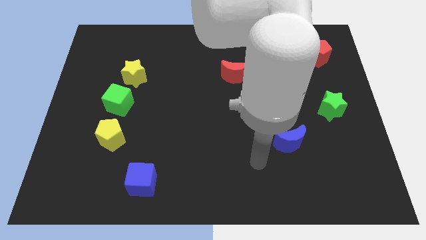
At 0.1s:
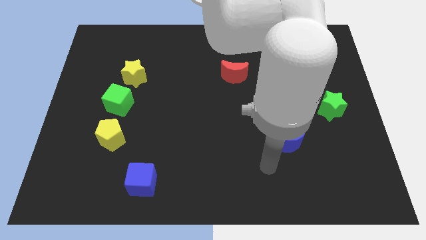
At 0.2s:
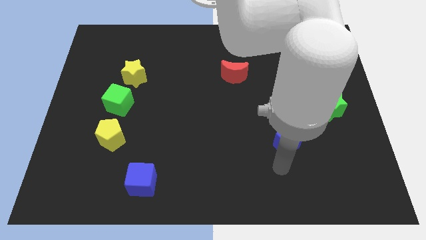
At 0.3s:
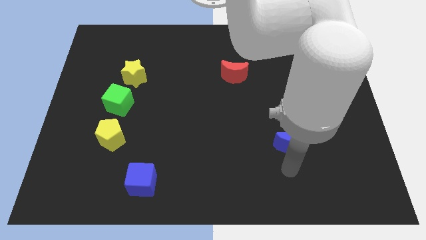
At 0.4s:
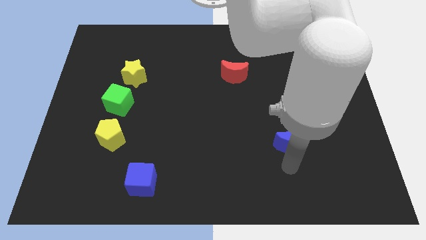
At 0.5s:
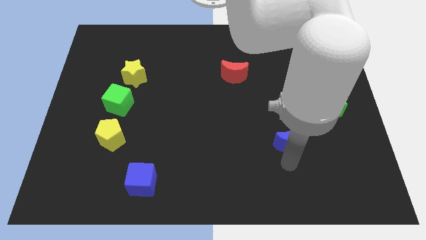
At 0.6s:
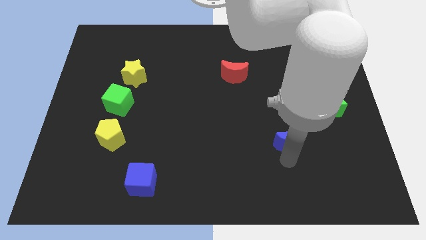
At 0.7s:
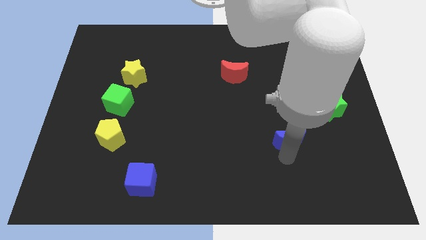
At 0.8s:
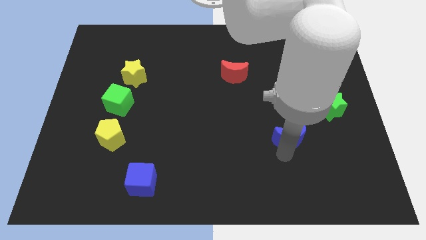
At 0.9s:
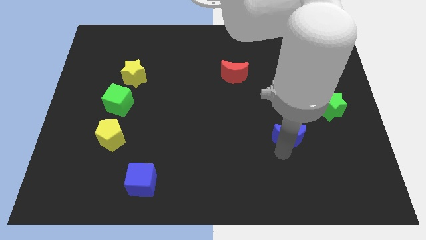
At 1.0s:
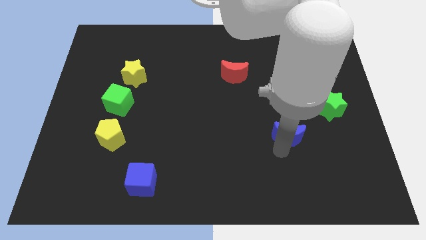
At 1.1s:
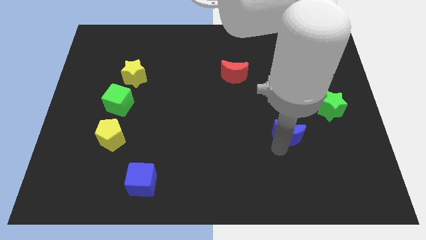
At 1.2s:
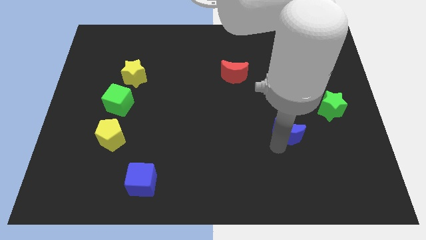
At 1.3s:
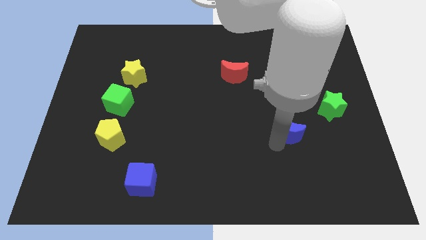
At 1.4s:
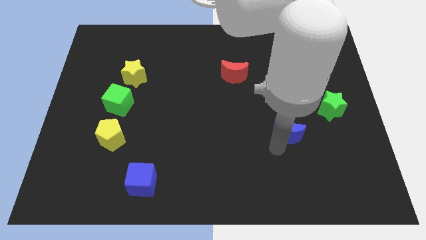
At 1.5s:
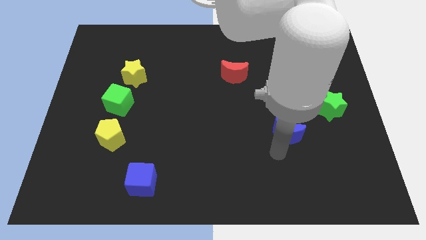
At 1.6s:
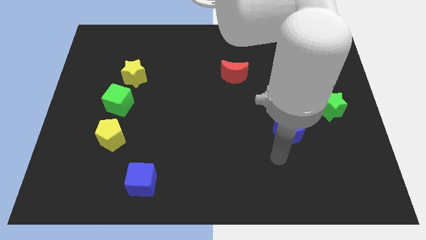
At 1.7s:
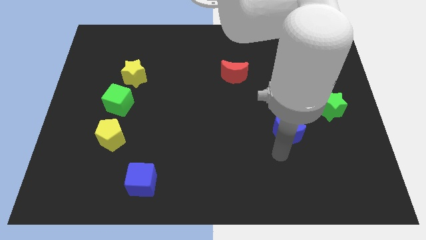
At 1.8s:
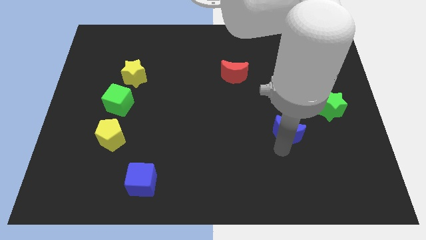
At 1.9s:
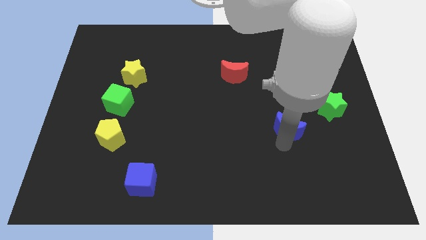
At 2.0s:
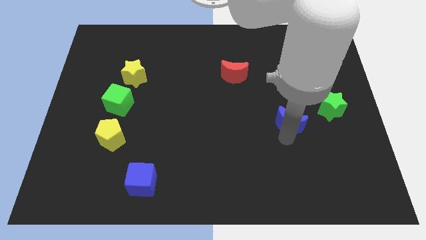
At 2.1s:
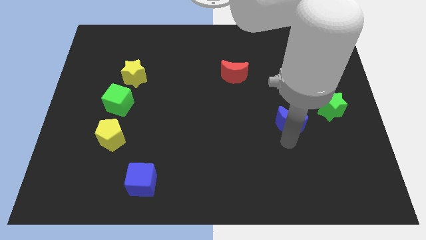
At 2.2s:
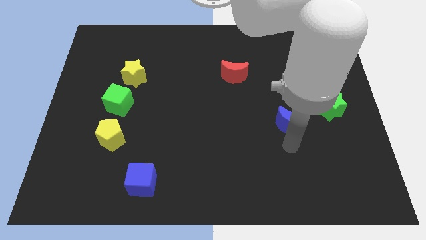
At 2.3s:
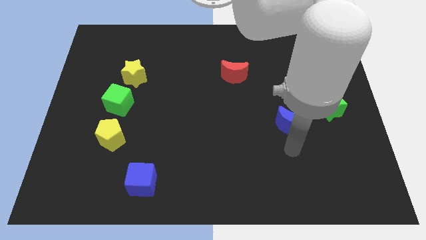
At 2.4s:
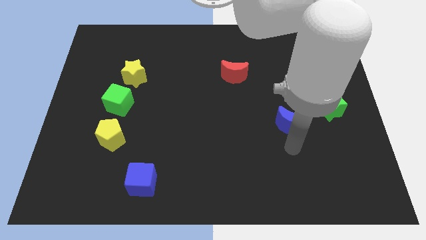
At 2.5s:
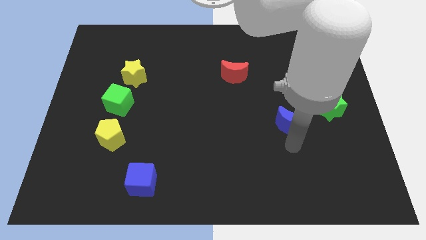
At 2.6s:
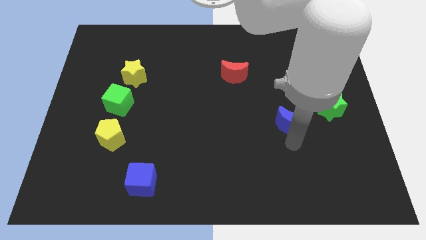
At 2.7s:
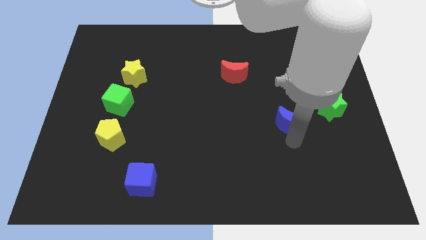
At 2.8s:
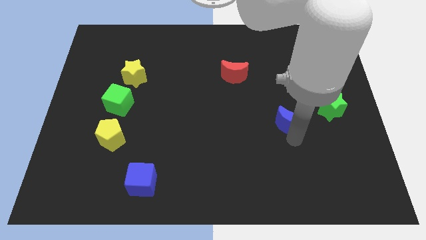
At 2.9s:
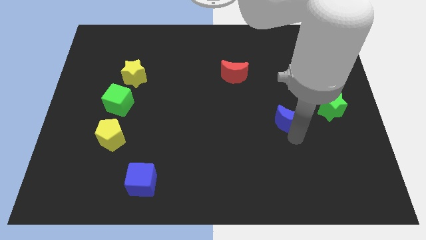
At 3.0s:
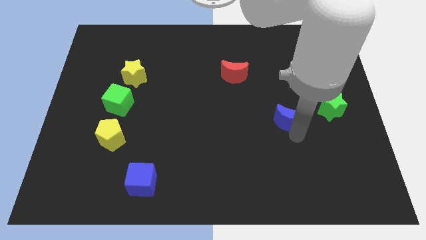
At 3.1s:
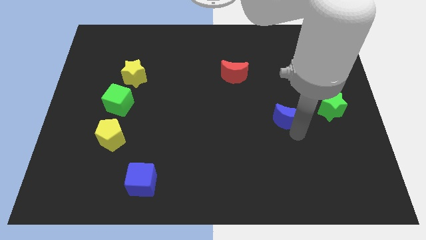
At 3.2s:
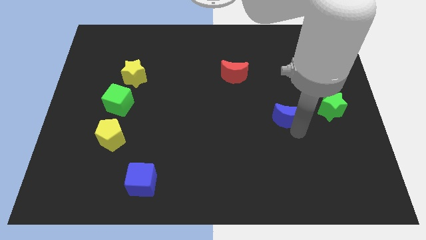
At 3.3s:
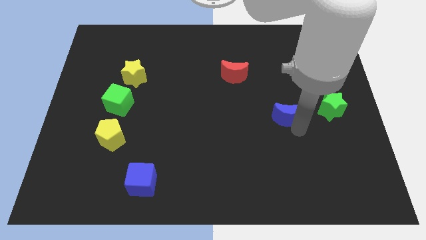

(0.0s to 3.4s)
push the blue moon a little upwards

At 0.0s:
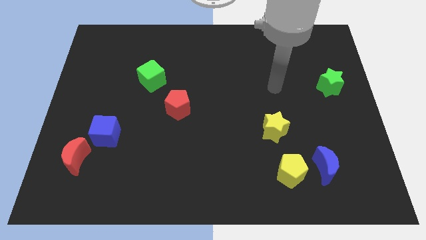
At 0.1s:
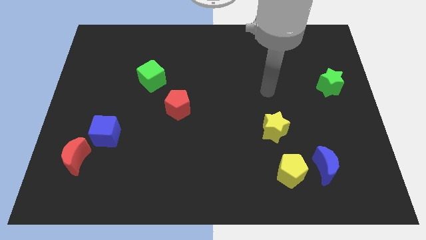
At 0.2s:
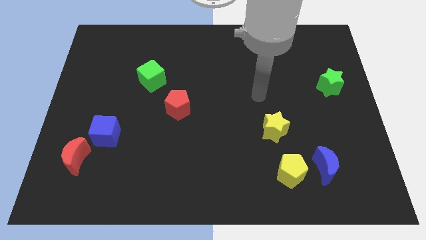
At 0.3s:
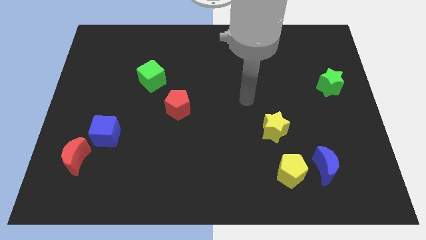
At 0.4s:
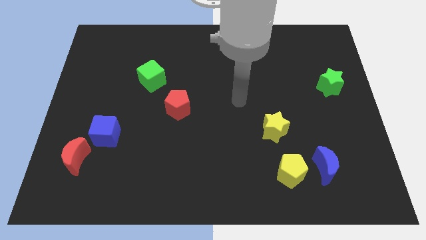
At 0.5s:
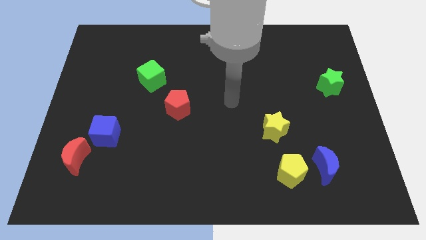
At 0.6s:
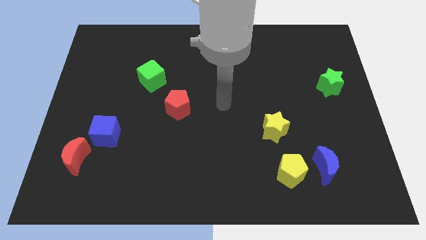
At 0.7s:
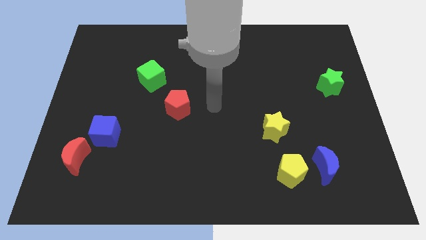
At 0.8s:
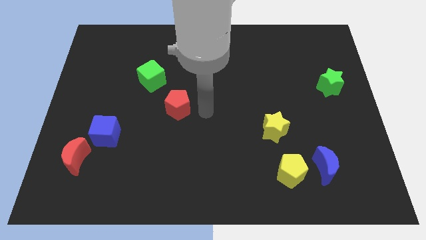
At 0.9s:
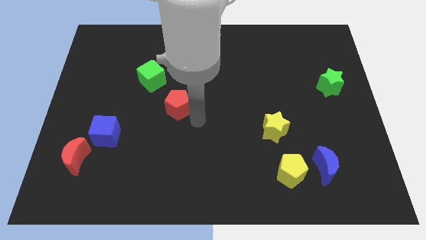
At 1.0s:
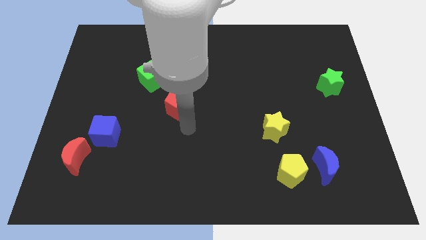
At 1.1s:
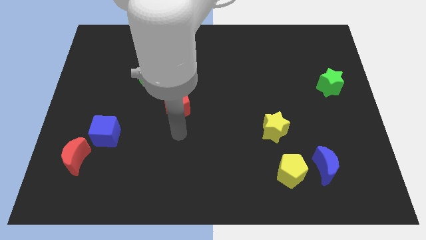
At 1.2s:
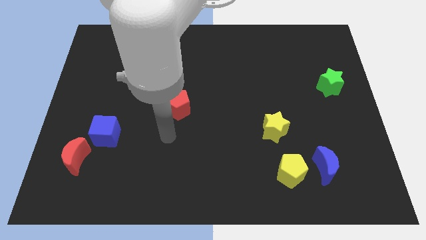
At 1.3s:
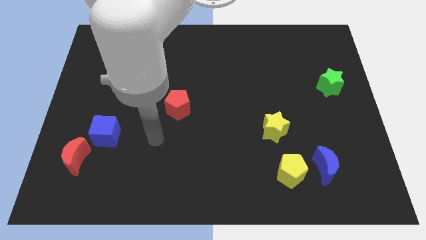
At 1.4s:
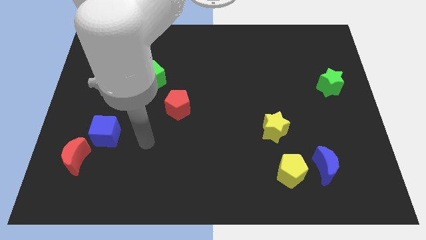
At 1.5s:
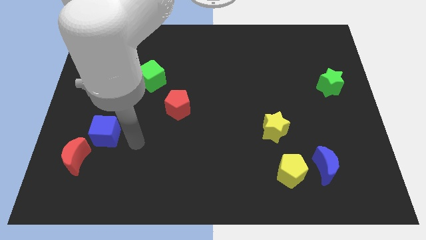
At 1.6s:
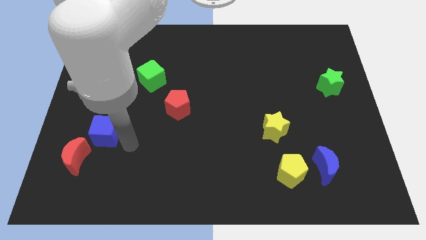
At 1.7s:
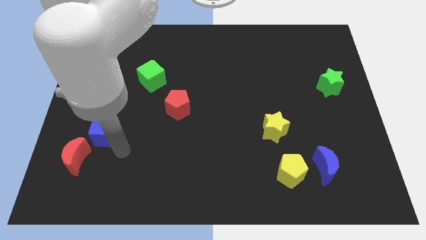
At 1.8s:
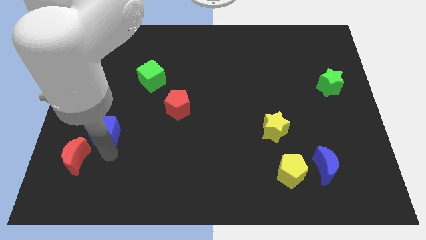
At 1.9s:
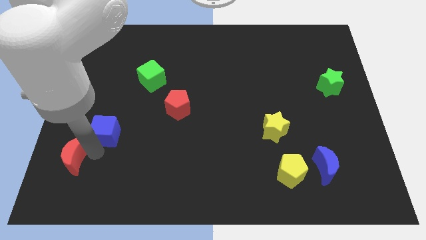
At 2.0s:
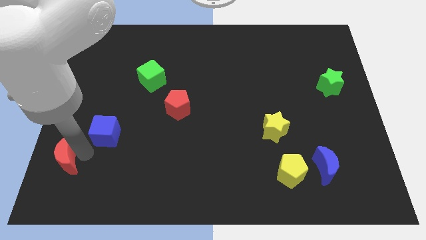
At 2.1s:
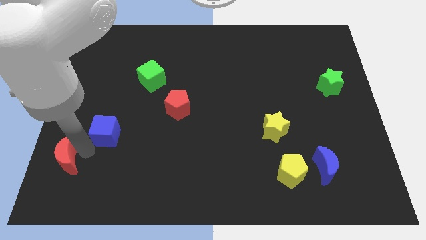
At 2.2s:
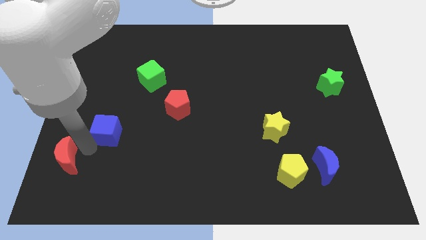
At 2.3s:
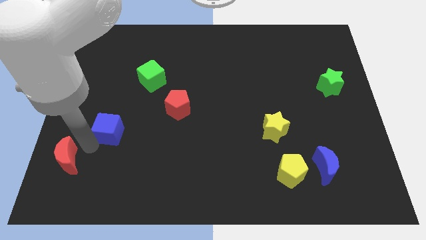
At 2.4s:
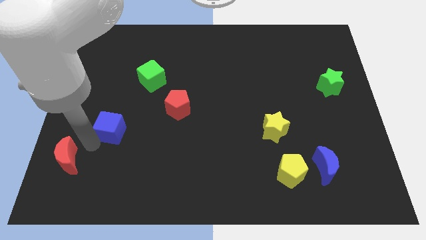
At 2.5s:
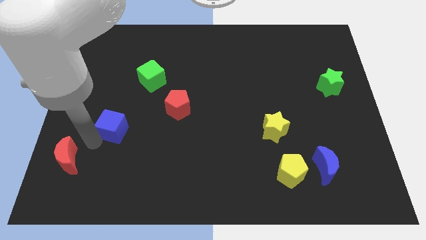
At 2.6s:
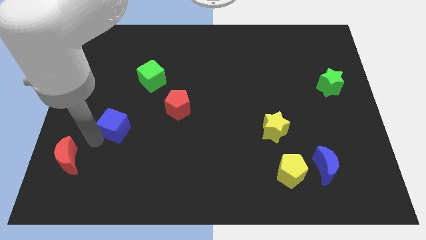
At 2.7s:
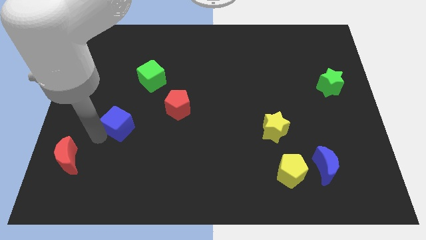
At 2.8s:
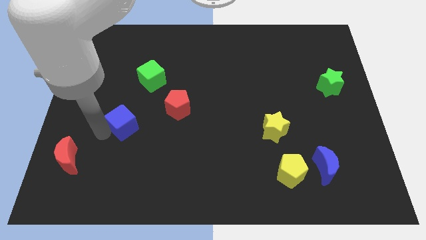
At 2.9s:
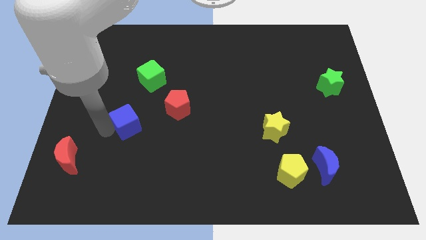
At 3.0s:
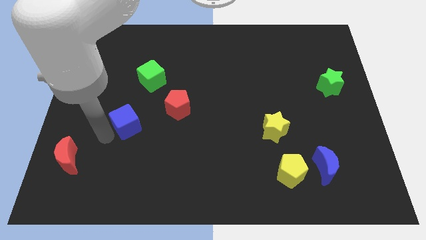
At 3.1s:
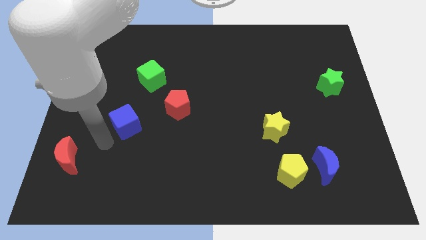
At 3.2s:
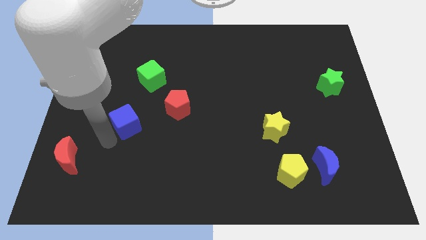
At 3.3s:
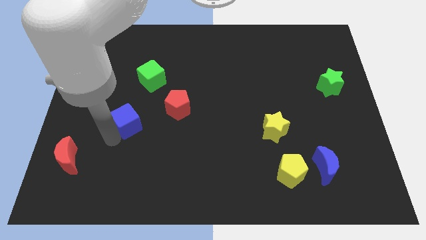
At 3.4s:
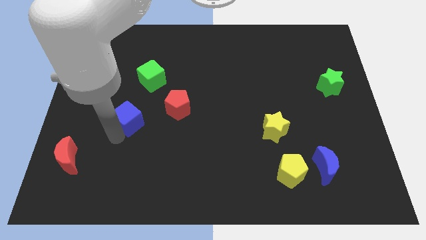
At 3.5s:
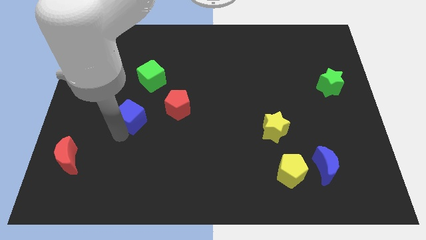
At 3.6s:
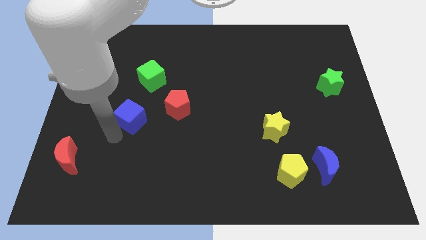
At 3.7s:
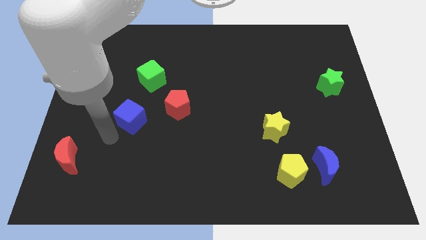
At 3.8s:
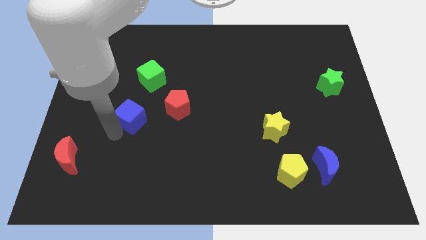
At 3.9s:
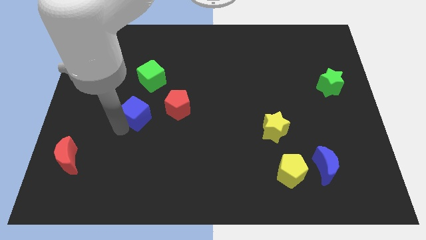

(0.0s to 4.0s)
push the blue cube upwards and to the right somewhat

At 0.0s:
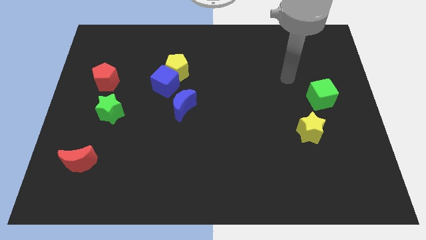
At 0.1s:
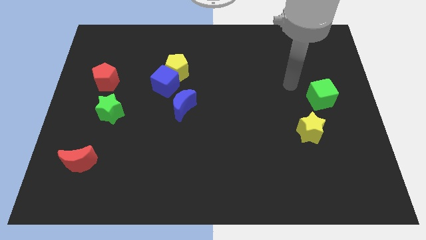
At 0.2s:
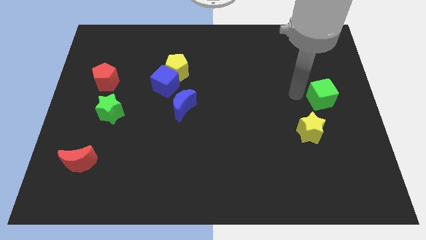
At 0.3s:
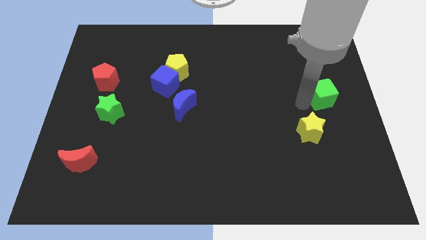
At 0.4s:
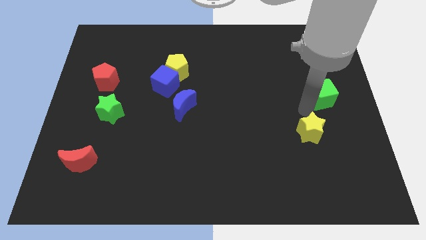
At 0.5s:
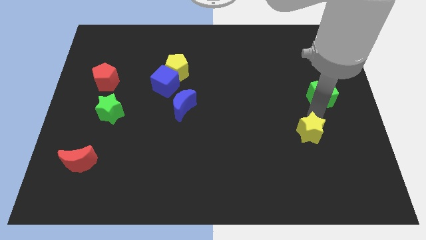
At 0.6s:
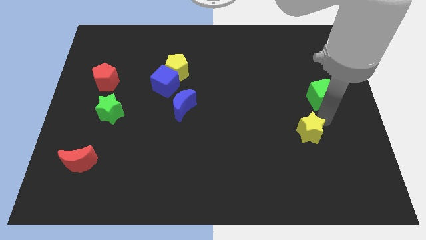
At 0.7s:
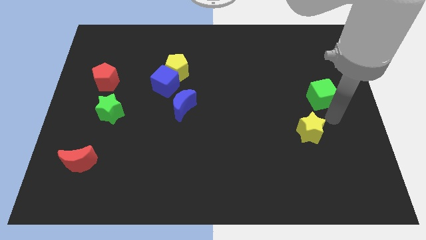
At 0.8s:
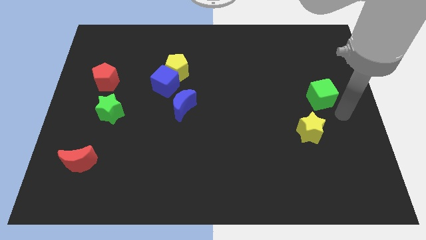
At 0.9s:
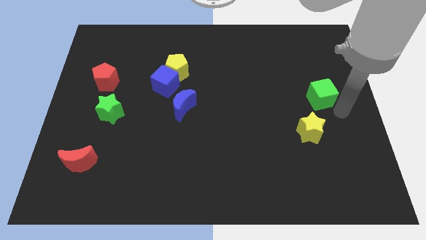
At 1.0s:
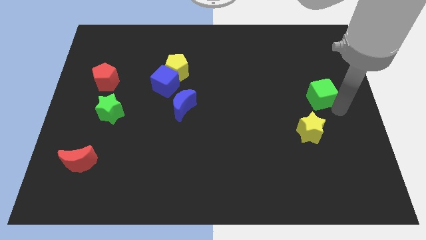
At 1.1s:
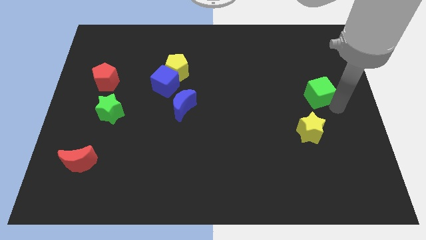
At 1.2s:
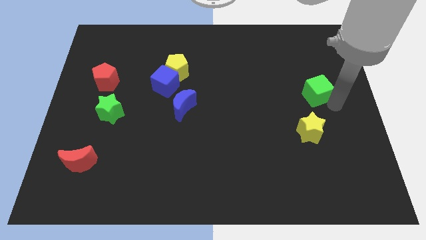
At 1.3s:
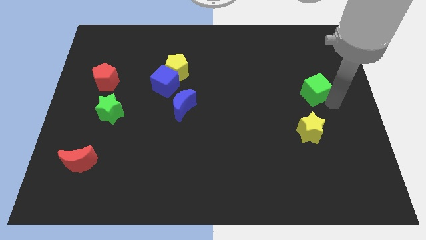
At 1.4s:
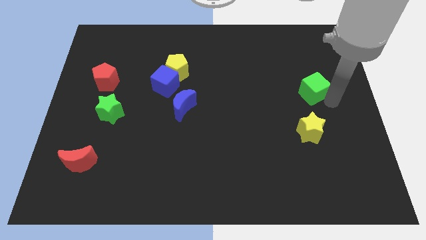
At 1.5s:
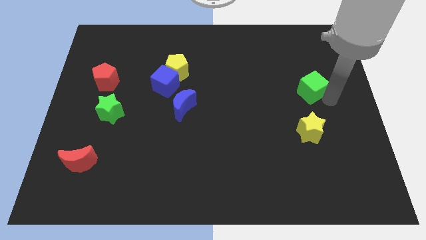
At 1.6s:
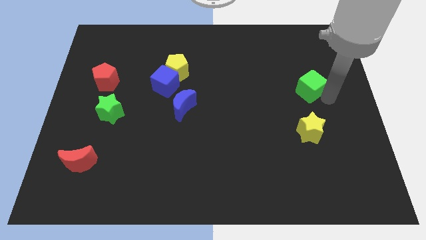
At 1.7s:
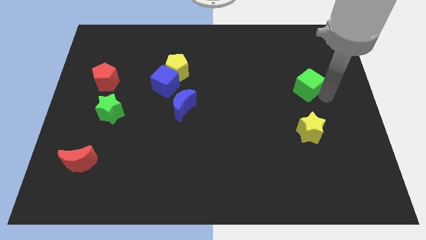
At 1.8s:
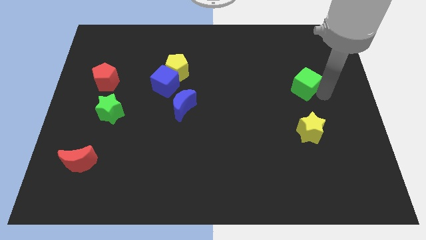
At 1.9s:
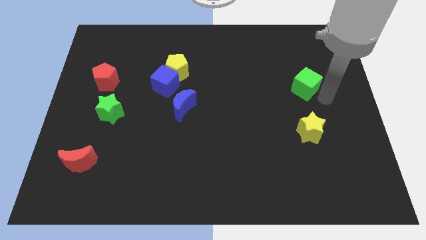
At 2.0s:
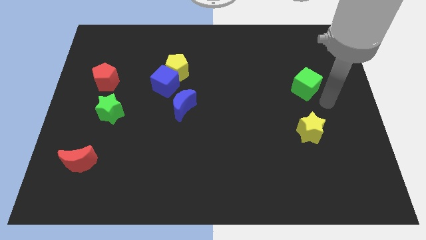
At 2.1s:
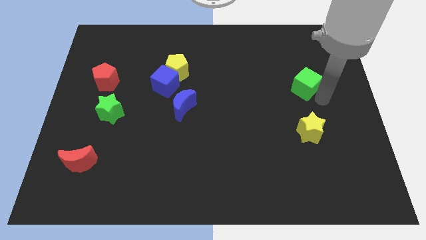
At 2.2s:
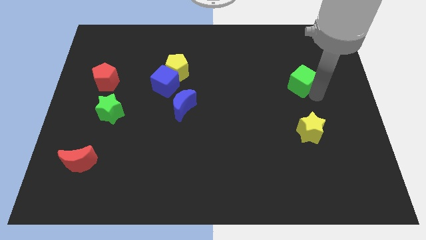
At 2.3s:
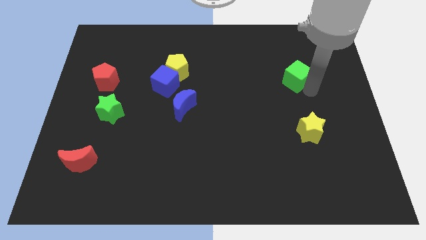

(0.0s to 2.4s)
push the green cube somewhat up and to the left diagonally
